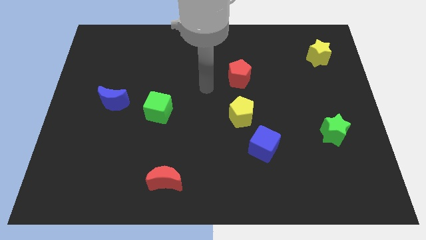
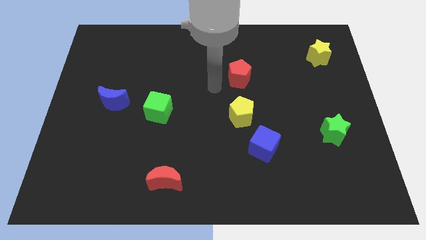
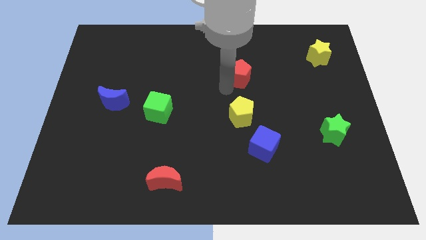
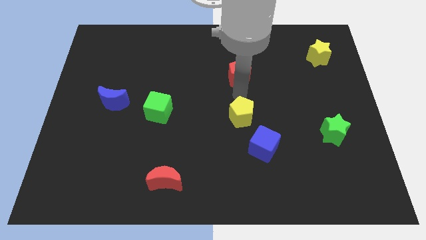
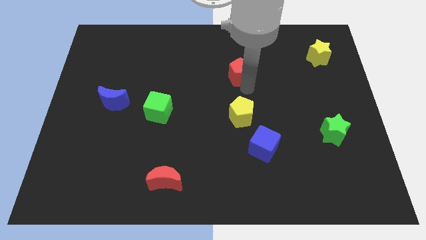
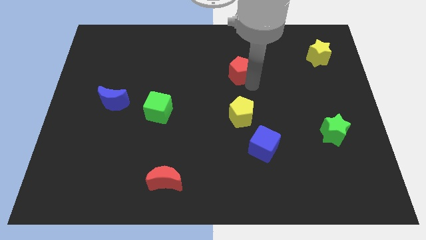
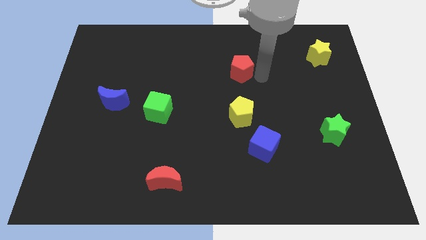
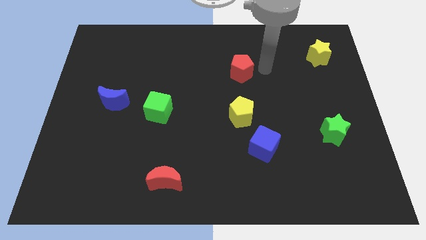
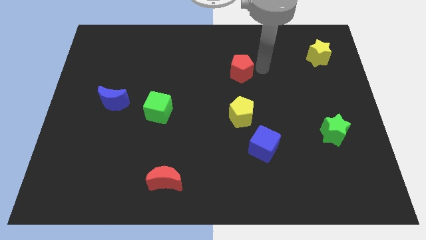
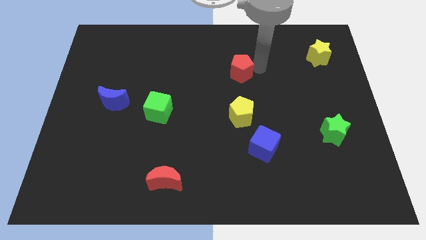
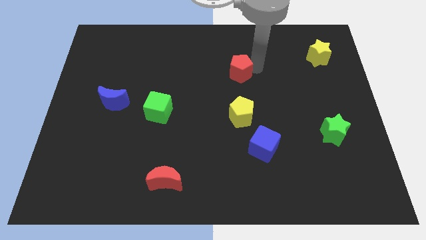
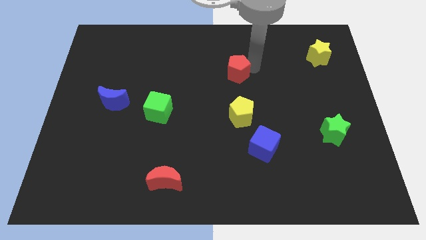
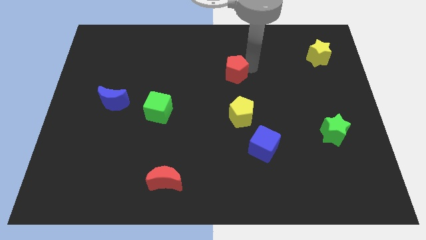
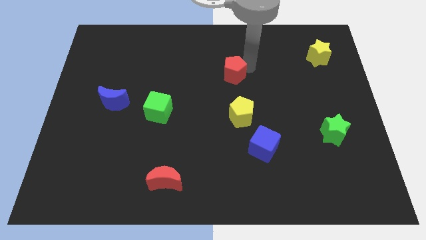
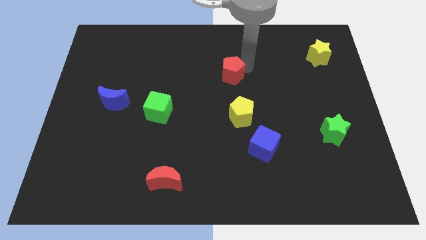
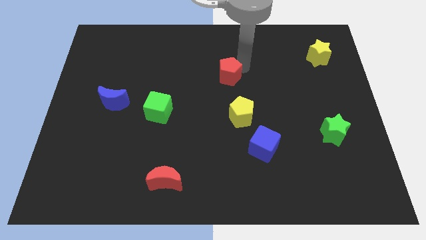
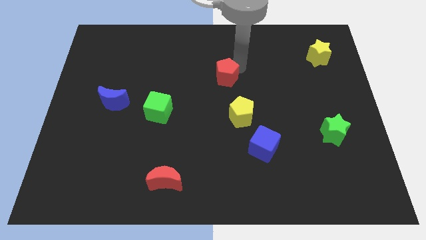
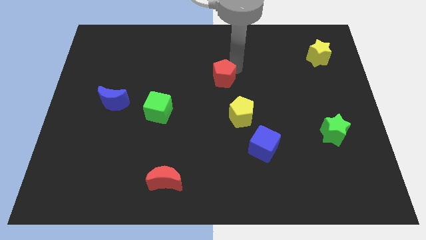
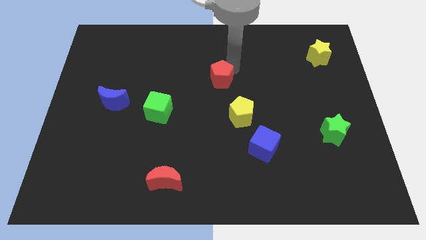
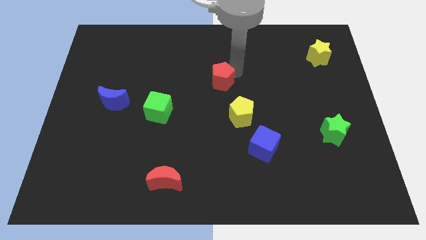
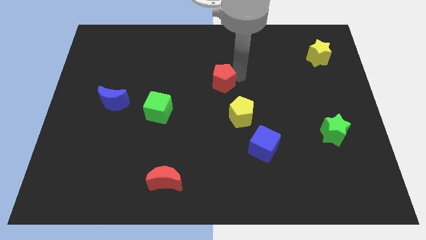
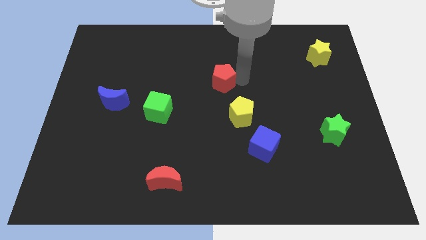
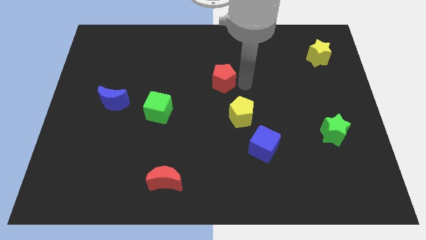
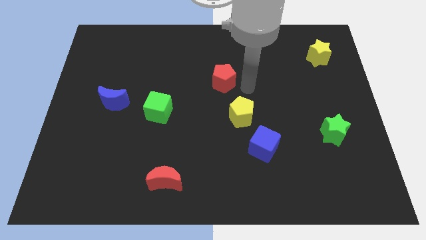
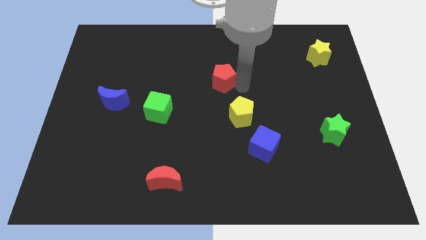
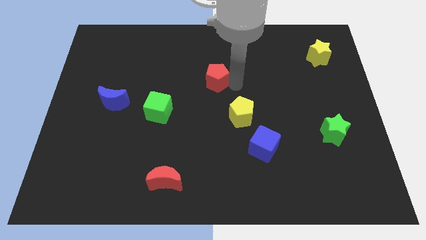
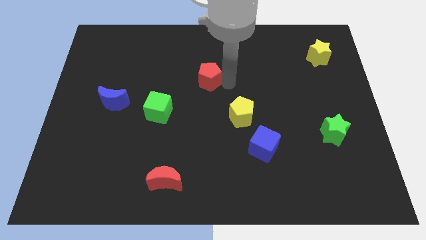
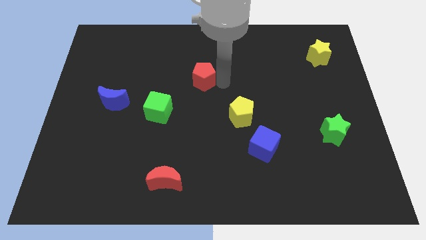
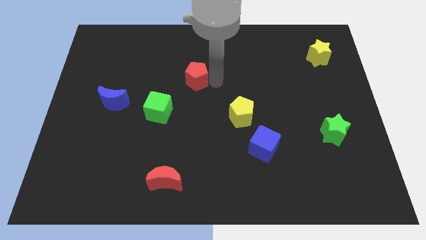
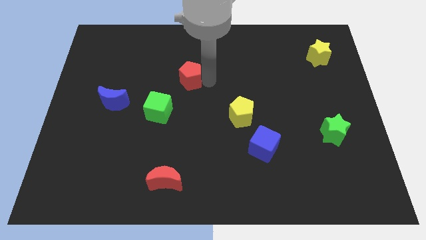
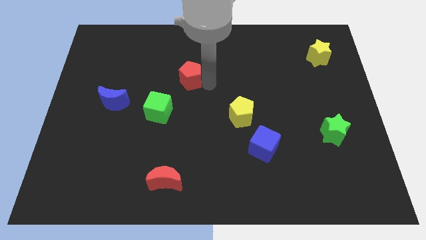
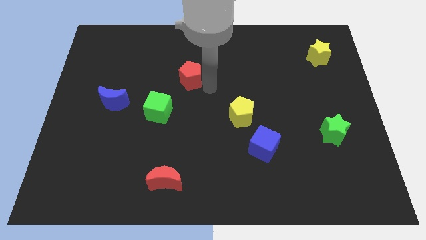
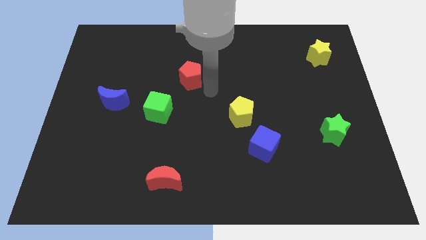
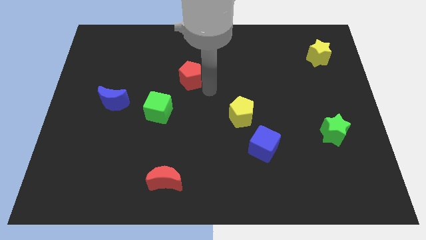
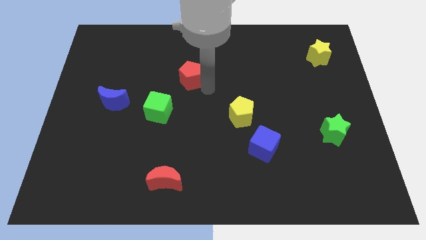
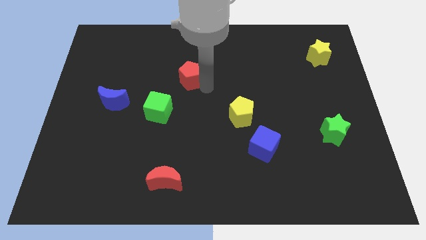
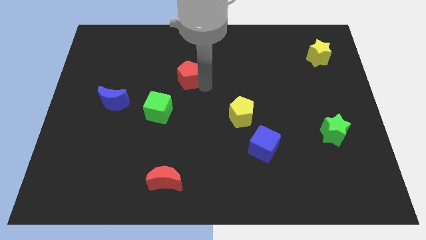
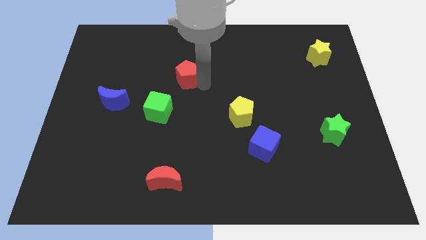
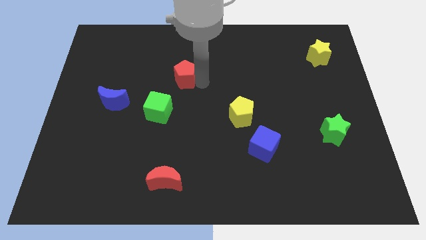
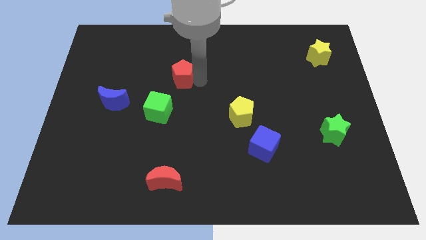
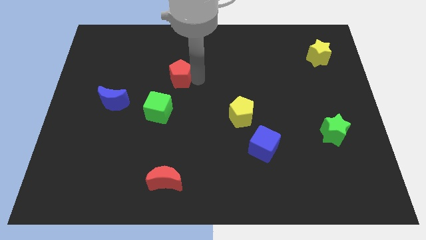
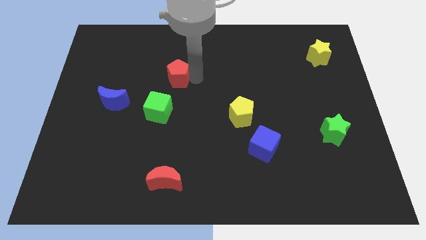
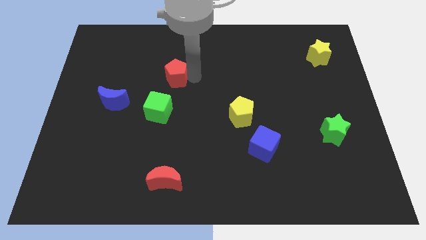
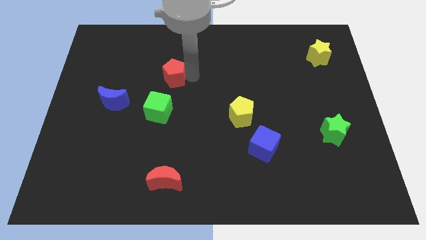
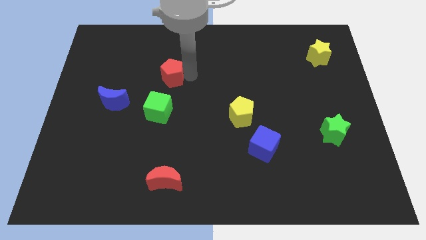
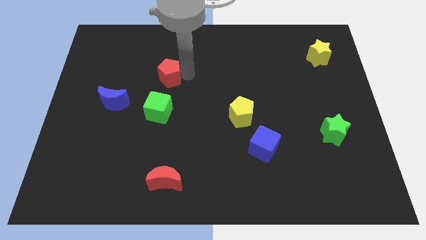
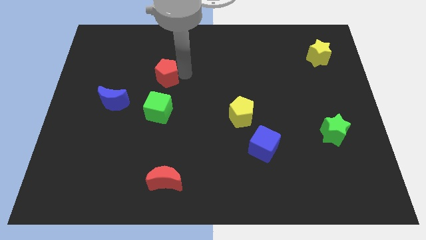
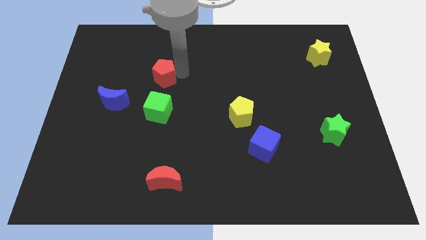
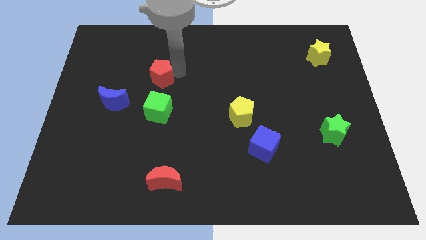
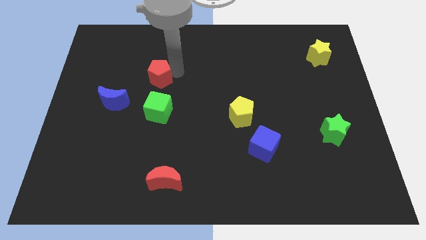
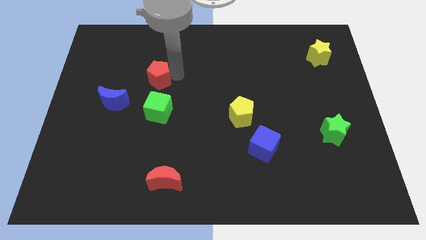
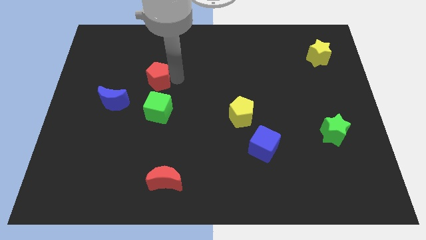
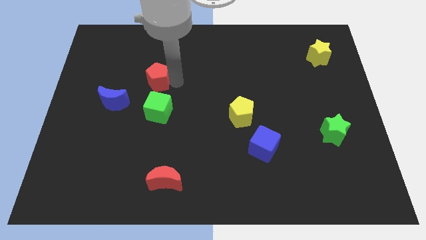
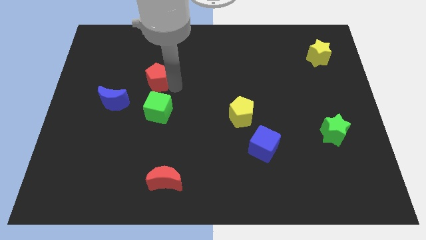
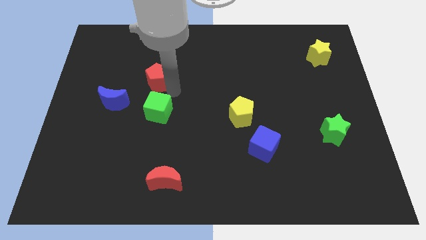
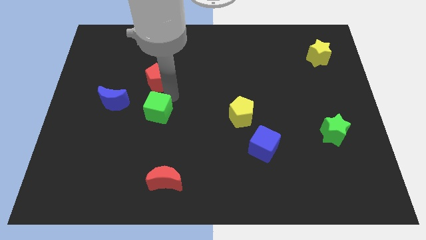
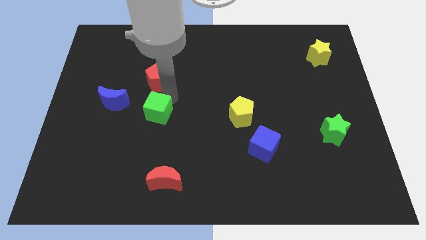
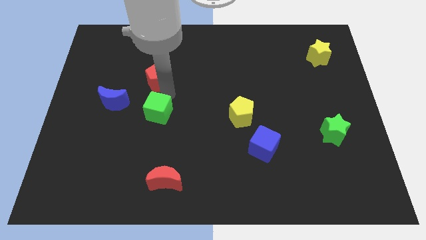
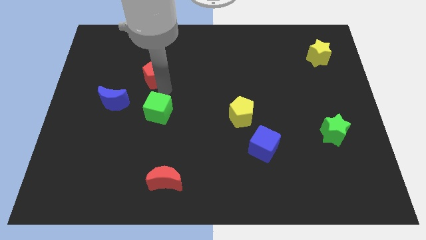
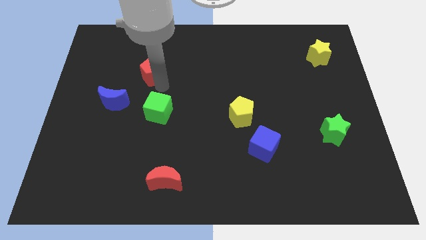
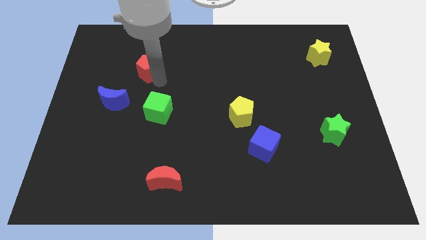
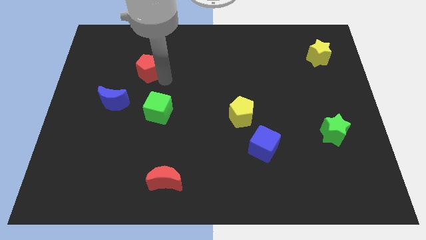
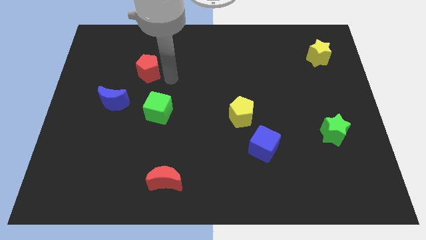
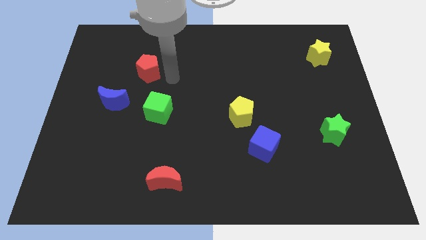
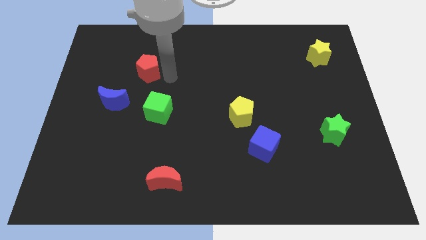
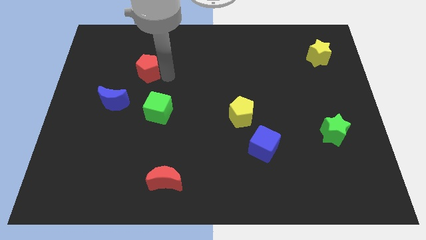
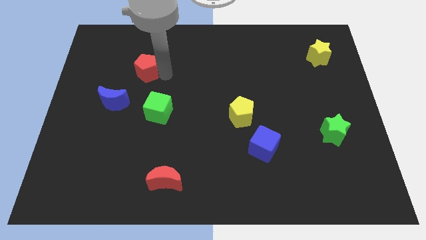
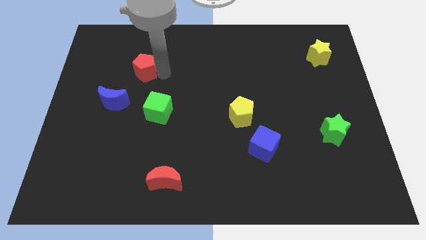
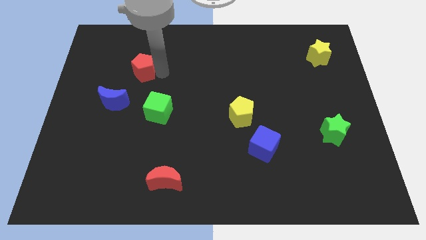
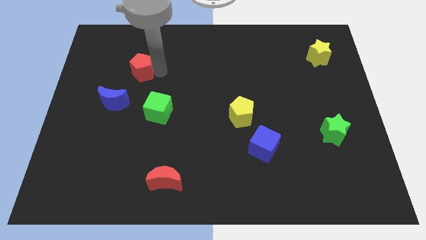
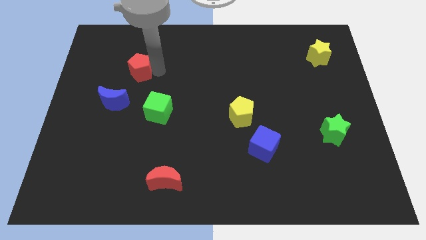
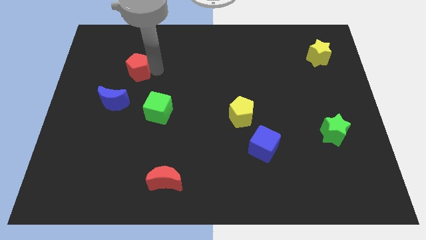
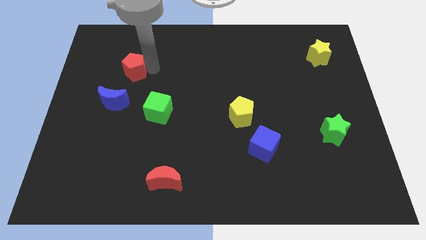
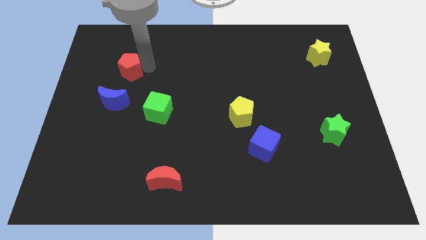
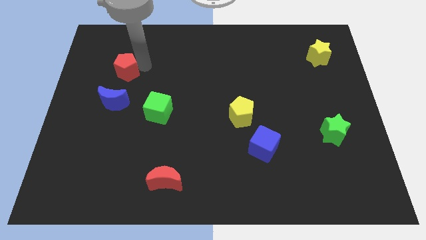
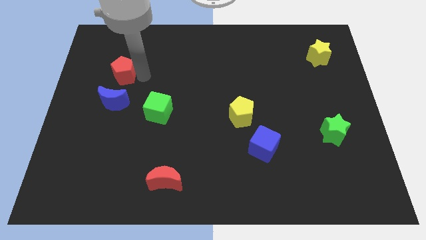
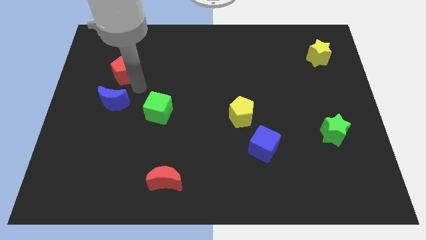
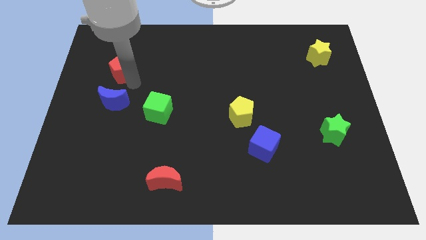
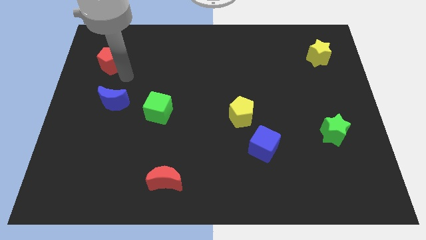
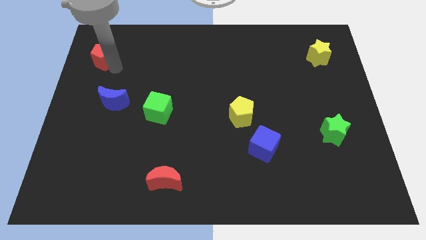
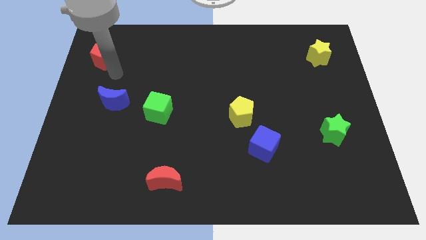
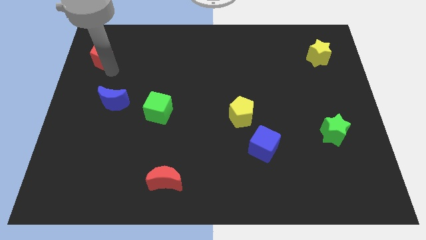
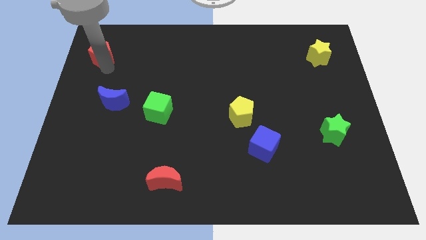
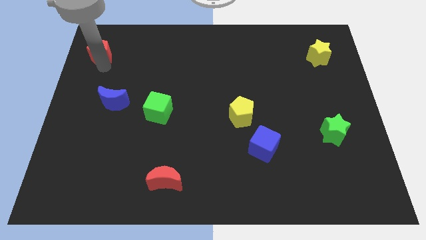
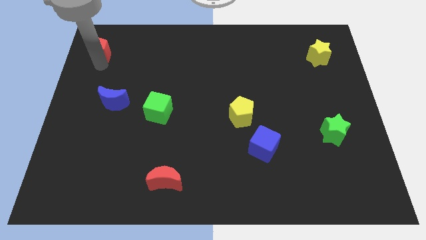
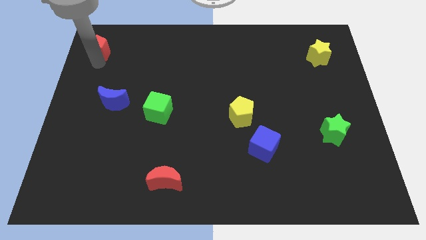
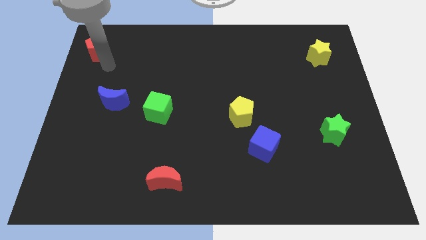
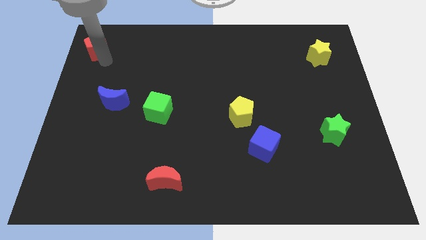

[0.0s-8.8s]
push the red pentagon to the top left corner
